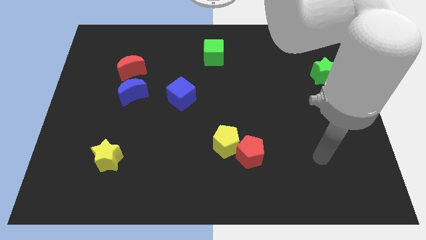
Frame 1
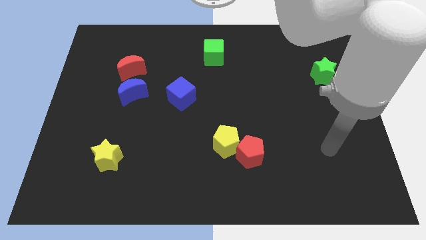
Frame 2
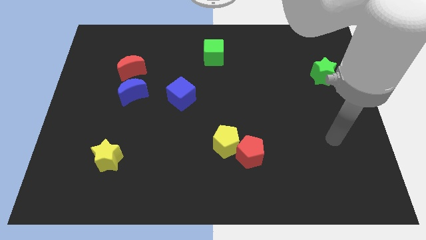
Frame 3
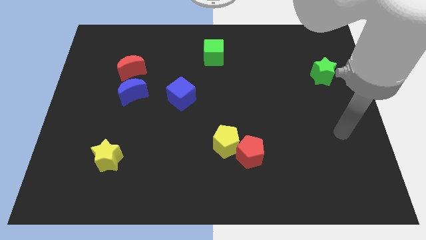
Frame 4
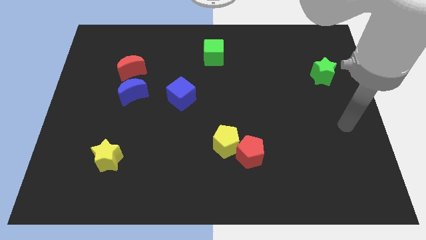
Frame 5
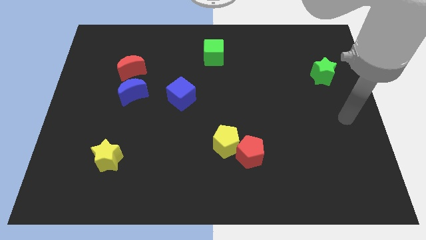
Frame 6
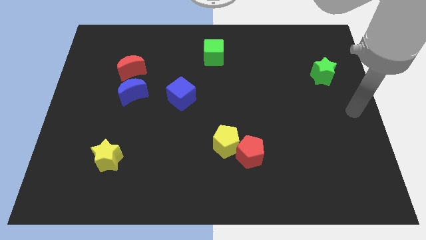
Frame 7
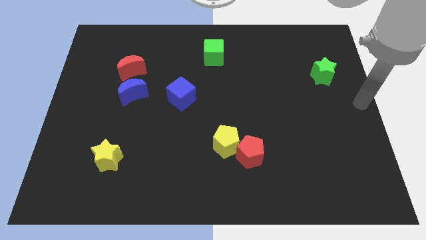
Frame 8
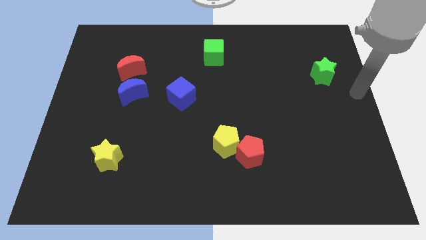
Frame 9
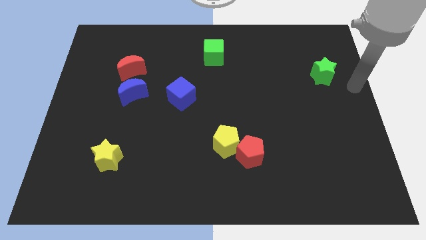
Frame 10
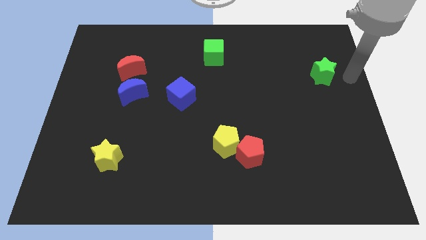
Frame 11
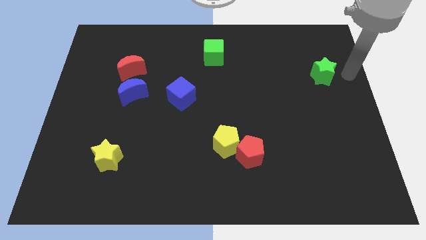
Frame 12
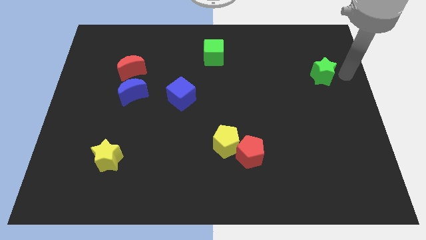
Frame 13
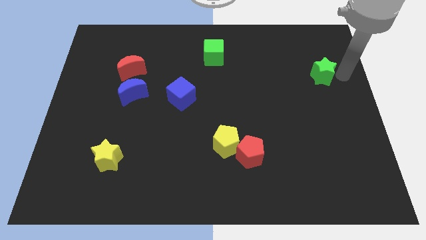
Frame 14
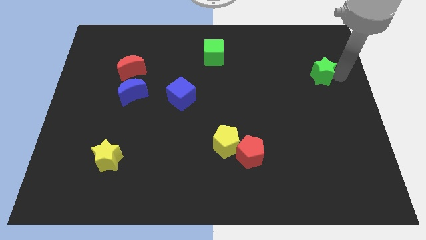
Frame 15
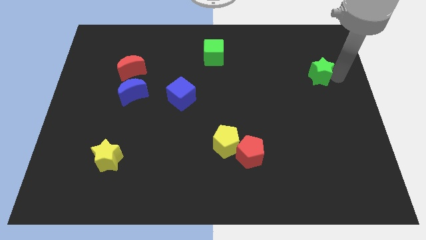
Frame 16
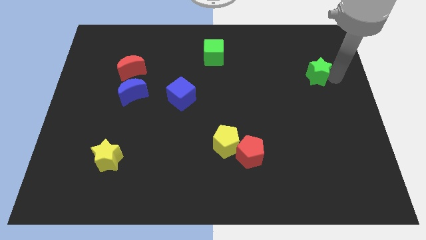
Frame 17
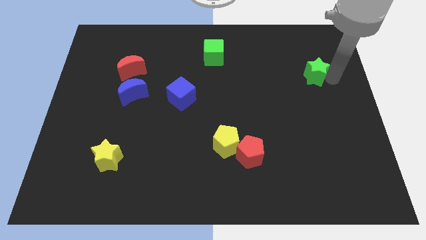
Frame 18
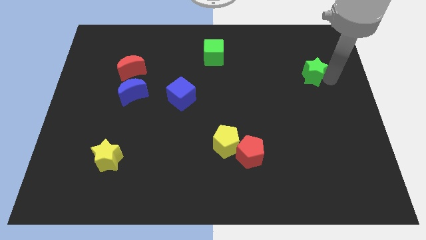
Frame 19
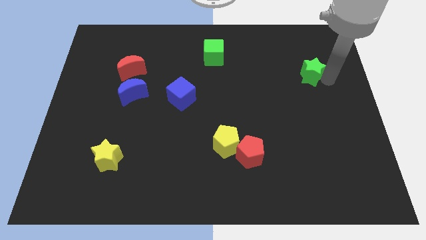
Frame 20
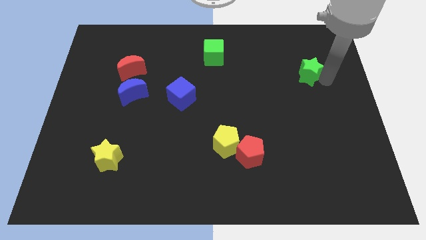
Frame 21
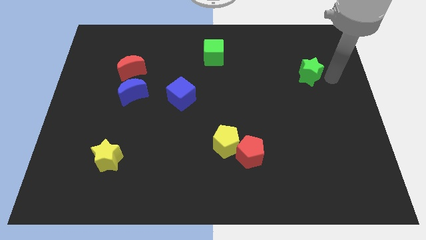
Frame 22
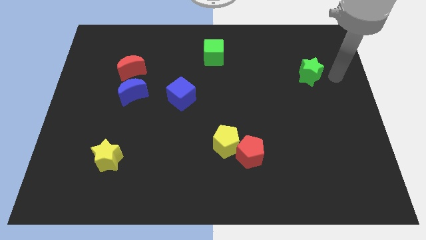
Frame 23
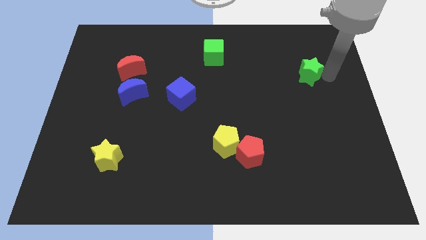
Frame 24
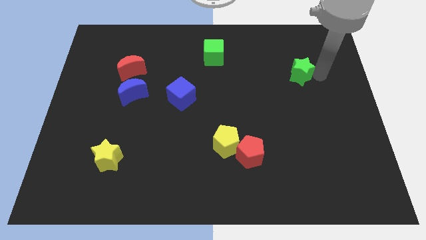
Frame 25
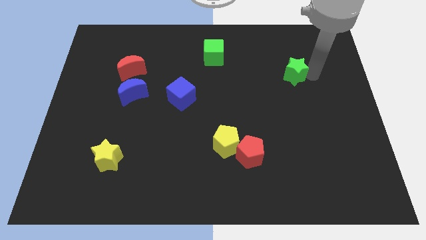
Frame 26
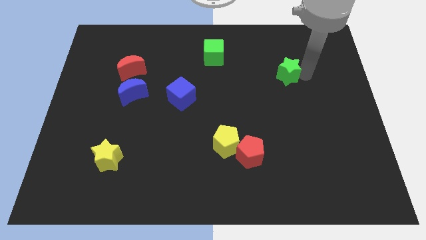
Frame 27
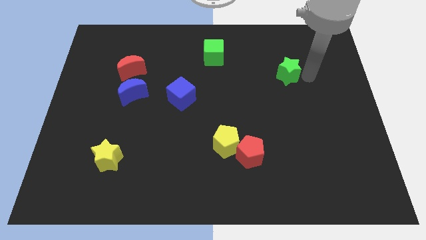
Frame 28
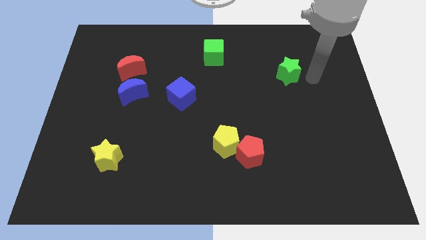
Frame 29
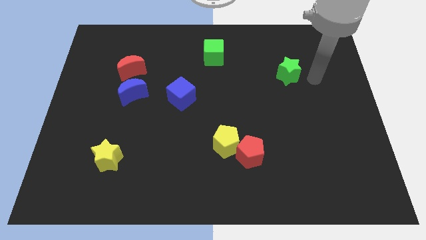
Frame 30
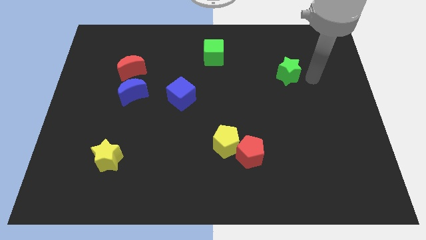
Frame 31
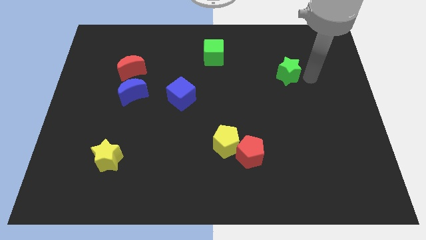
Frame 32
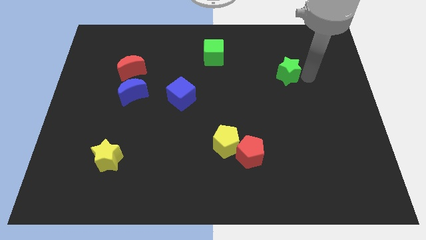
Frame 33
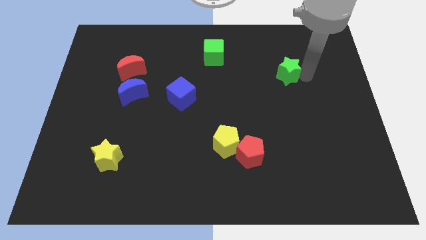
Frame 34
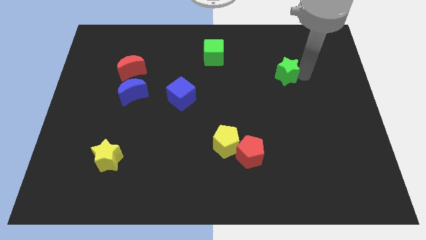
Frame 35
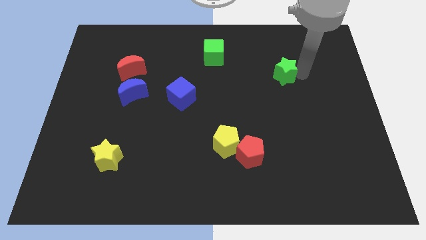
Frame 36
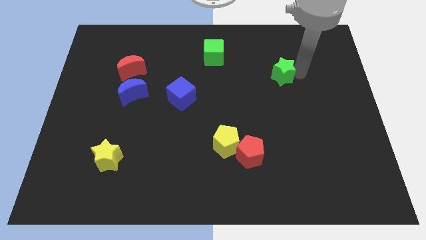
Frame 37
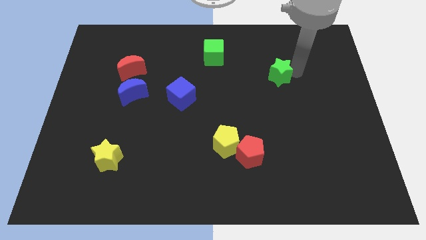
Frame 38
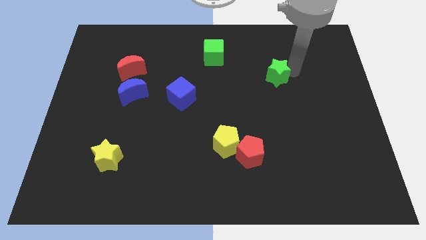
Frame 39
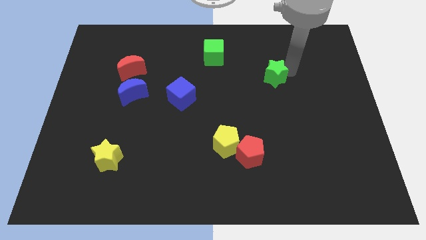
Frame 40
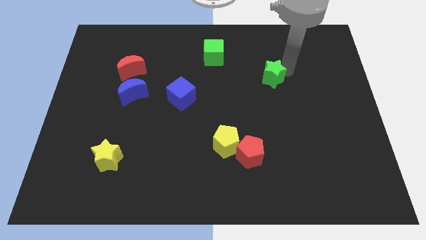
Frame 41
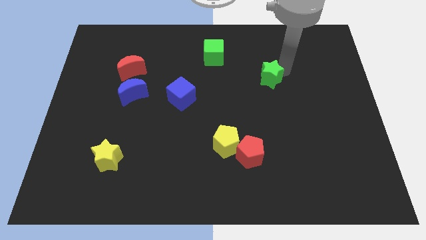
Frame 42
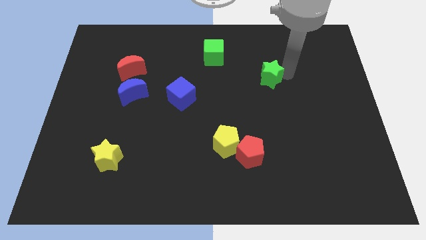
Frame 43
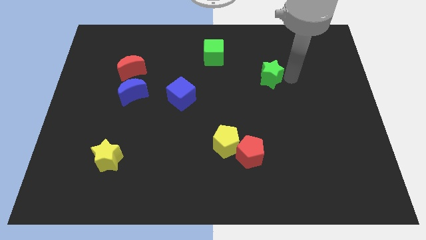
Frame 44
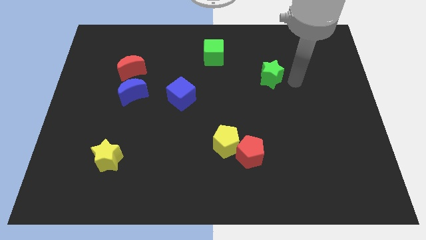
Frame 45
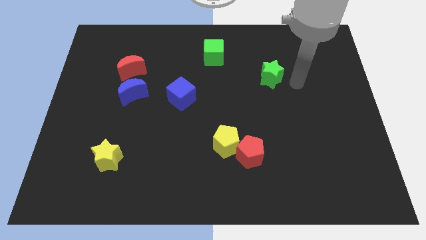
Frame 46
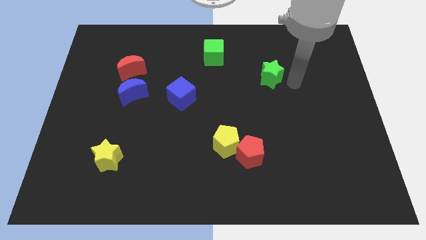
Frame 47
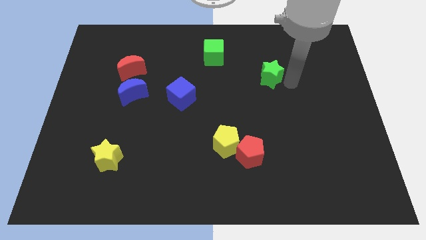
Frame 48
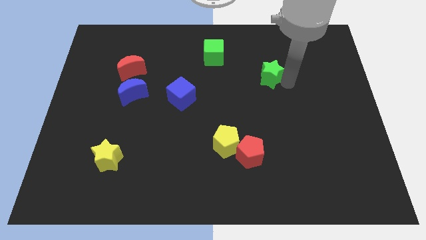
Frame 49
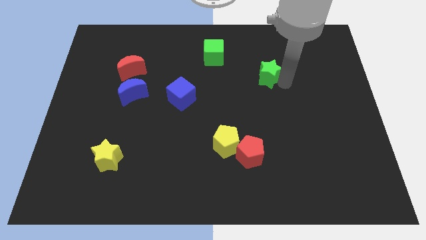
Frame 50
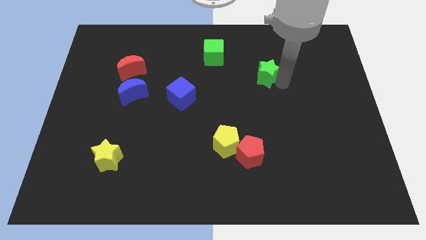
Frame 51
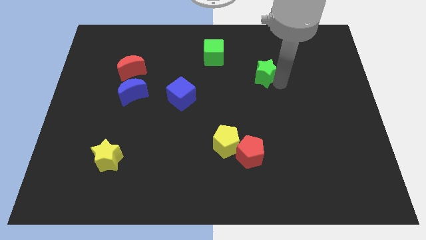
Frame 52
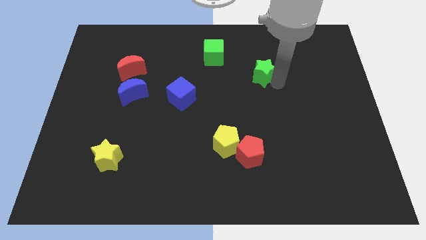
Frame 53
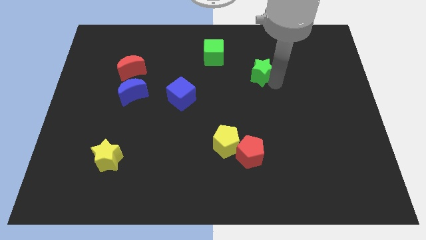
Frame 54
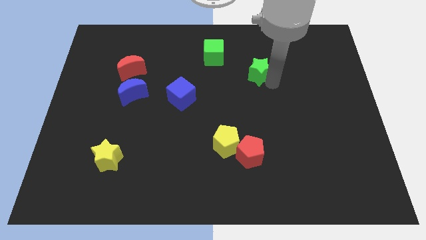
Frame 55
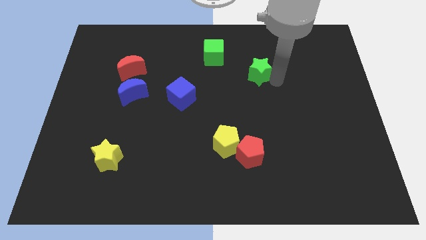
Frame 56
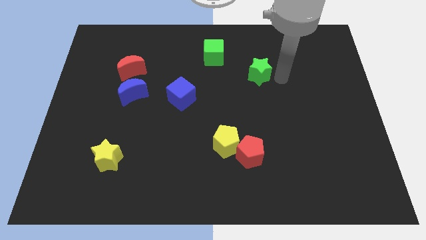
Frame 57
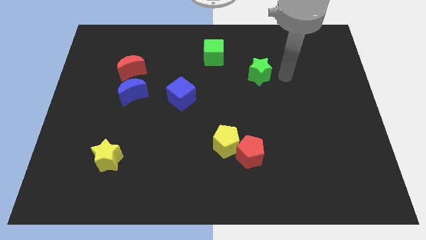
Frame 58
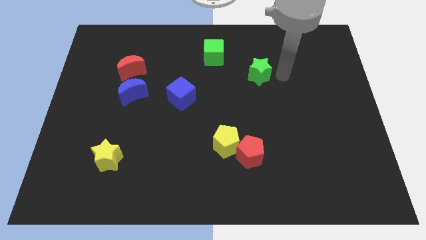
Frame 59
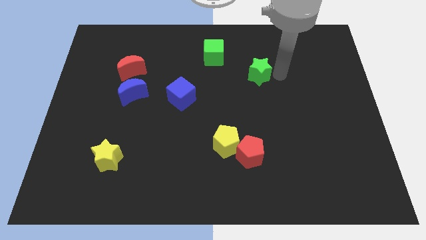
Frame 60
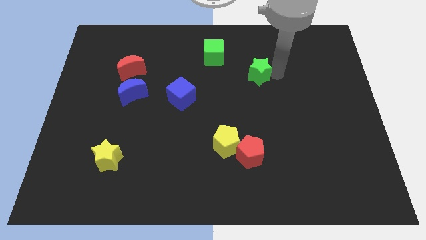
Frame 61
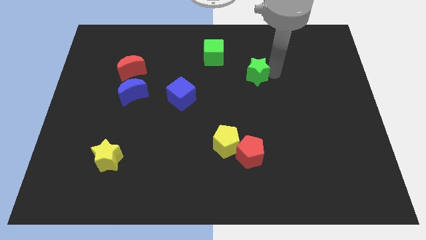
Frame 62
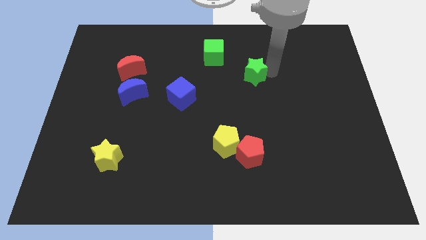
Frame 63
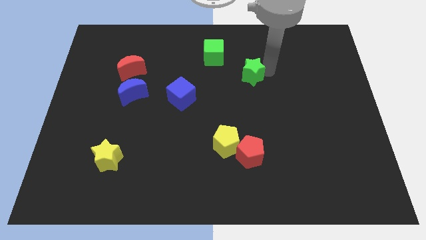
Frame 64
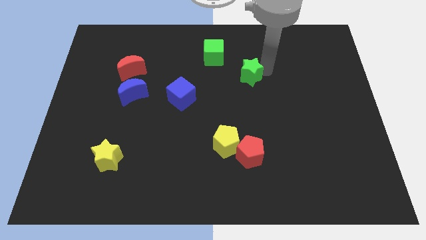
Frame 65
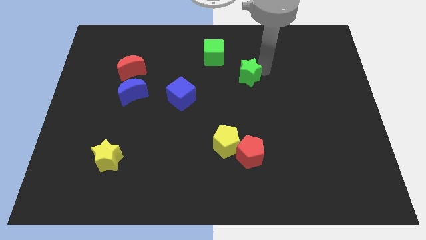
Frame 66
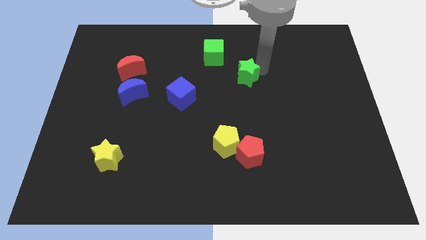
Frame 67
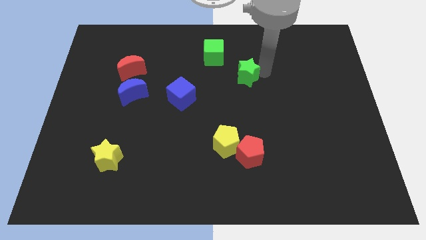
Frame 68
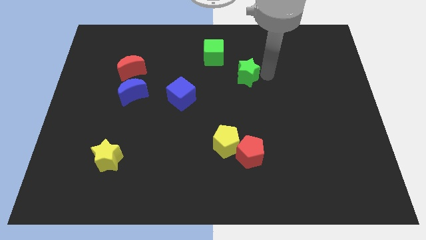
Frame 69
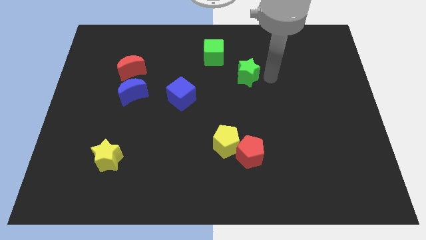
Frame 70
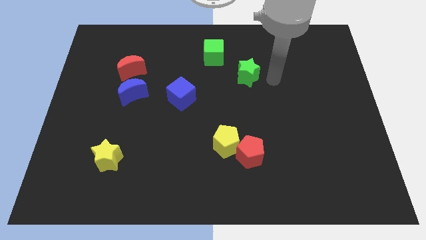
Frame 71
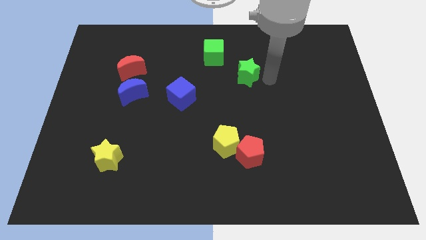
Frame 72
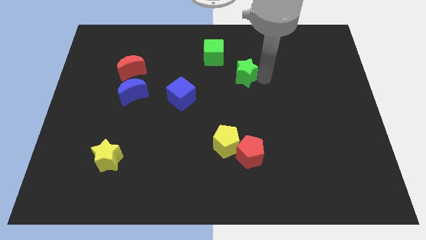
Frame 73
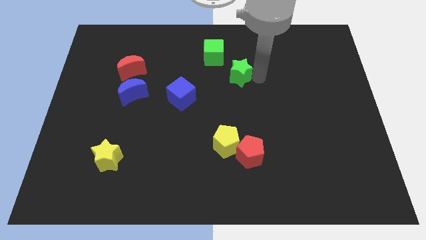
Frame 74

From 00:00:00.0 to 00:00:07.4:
push the green star left

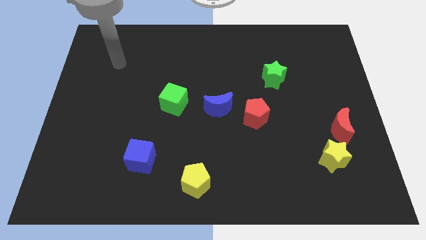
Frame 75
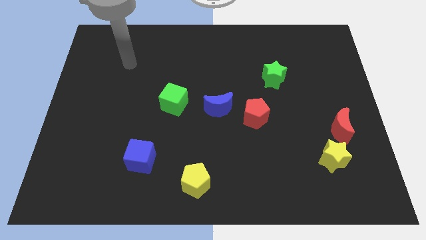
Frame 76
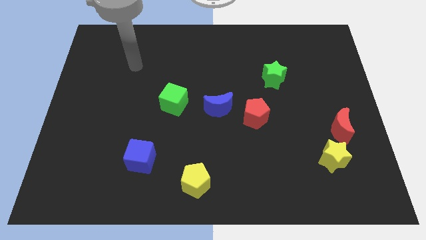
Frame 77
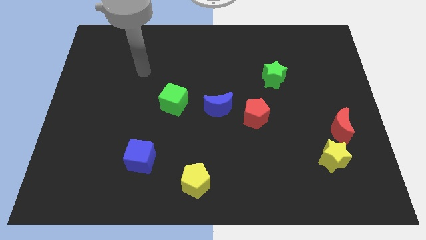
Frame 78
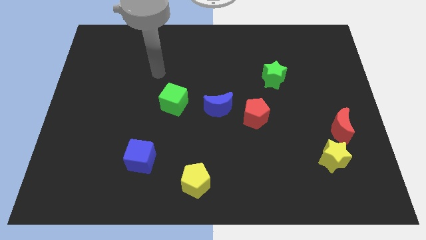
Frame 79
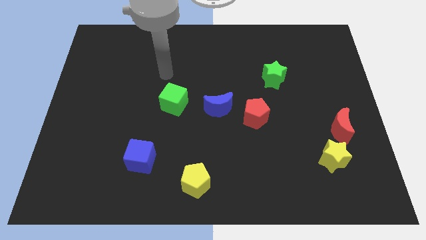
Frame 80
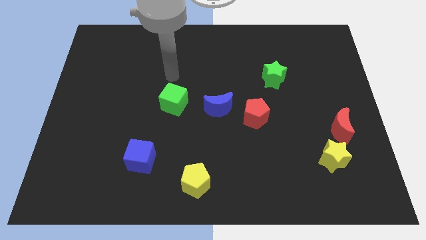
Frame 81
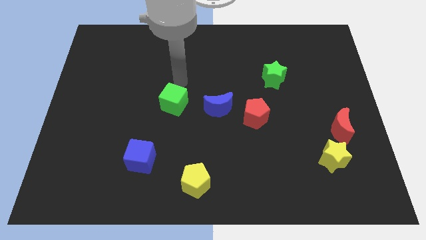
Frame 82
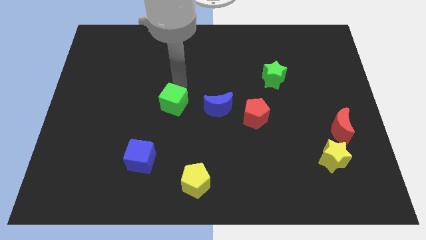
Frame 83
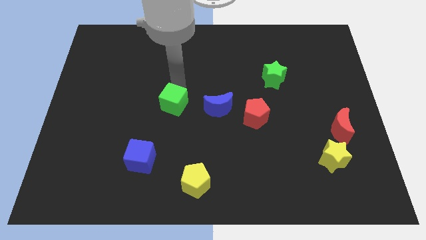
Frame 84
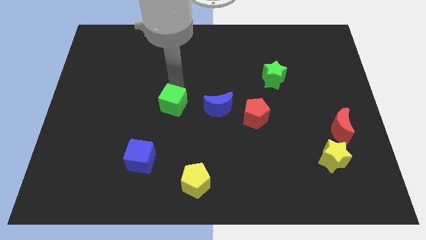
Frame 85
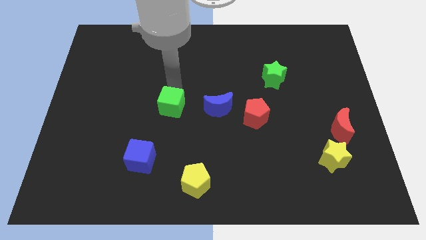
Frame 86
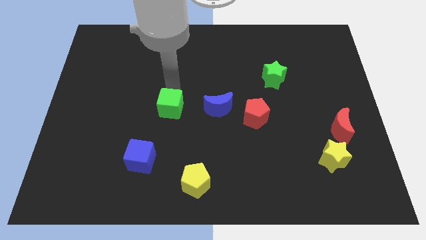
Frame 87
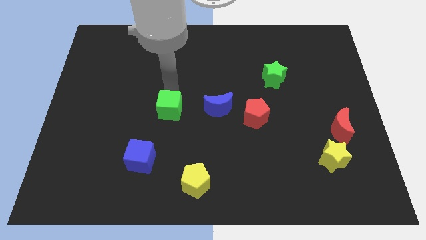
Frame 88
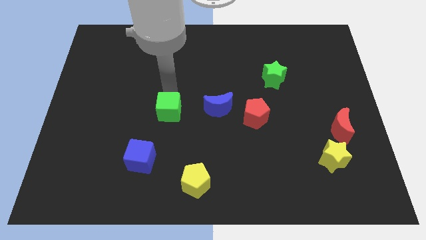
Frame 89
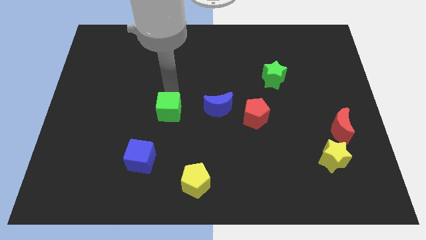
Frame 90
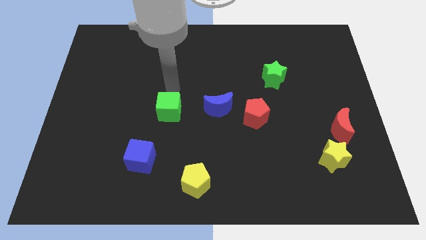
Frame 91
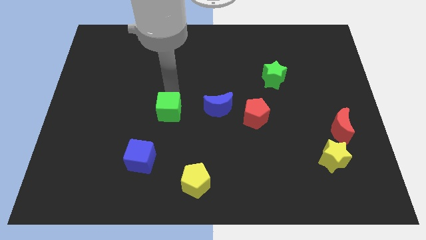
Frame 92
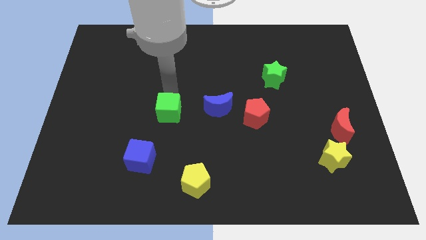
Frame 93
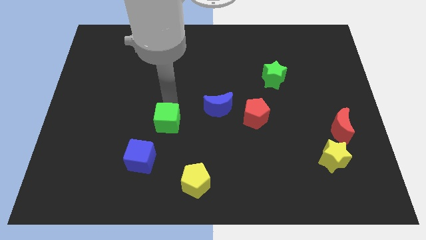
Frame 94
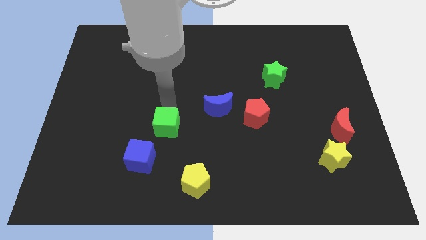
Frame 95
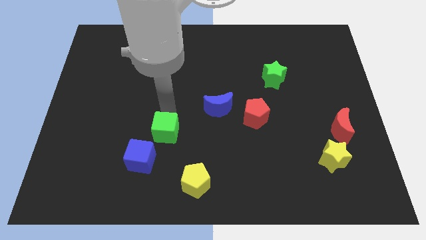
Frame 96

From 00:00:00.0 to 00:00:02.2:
slightly slide the green cube down
